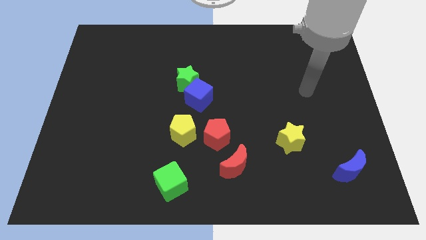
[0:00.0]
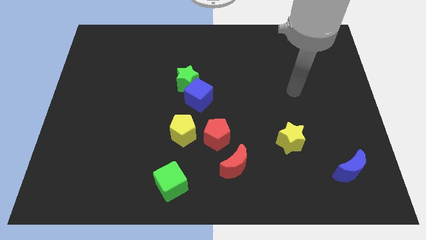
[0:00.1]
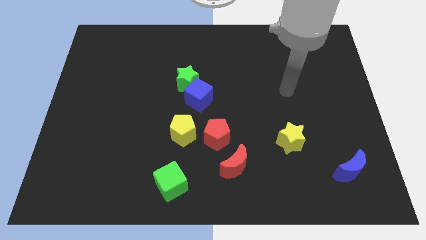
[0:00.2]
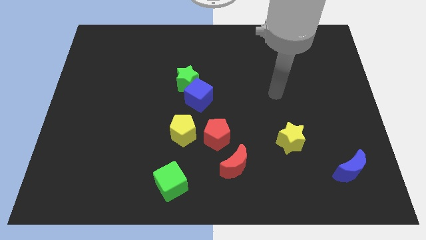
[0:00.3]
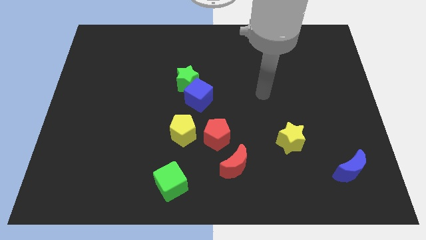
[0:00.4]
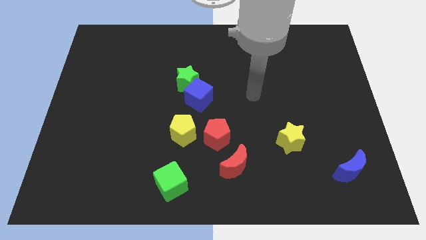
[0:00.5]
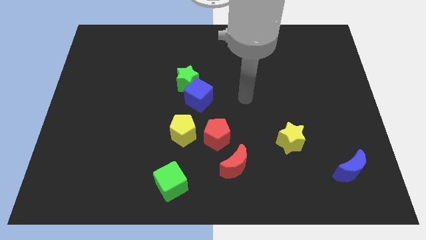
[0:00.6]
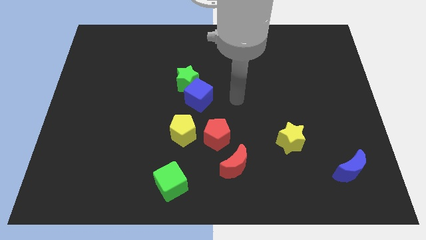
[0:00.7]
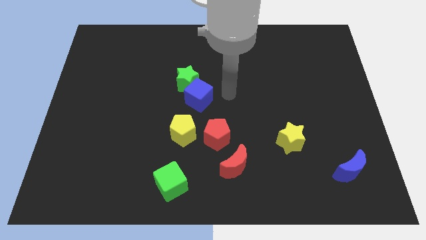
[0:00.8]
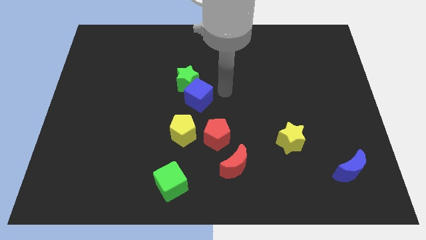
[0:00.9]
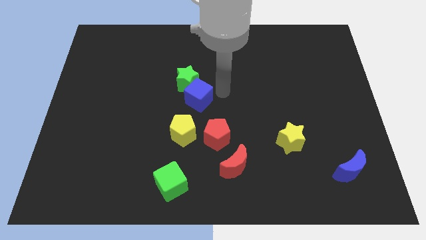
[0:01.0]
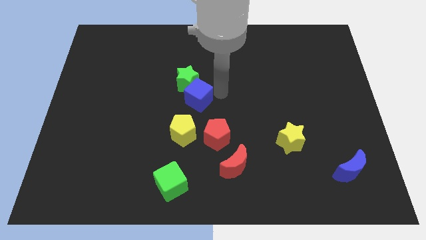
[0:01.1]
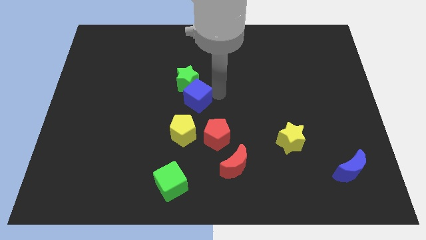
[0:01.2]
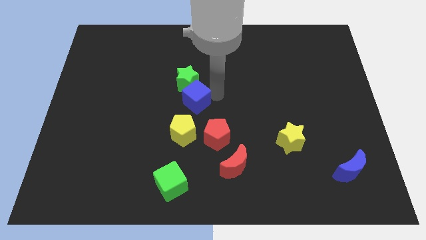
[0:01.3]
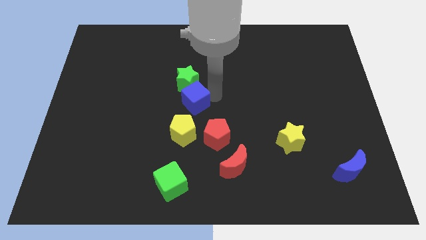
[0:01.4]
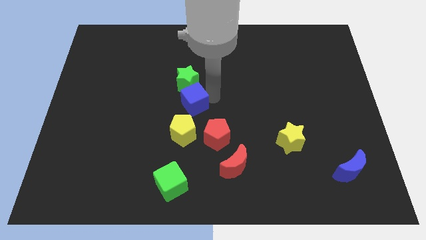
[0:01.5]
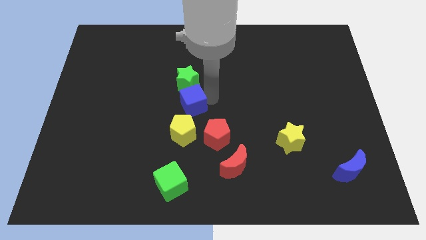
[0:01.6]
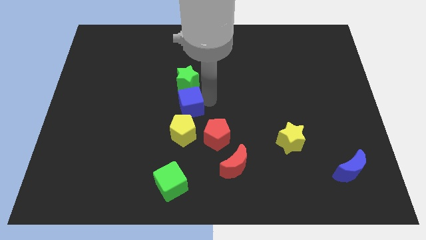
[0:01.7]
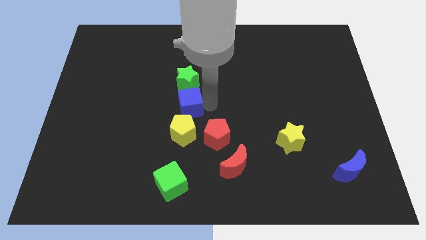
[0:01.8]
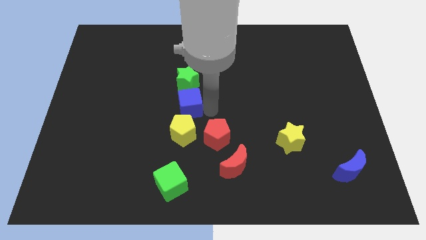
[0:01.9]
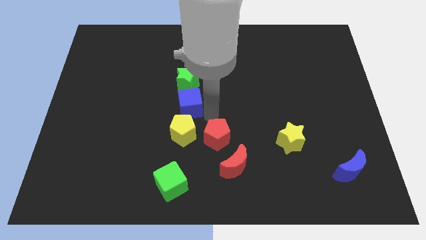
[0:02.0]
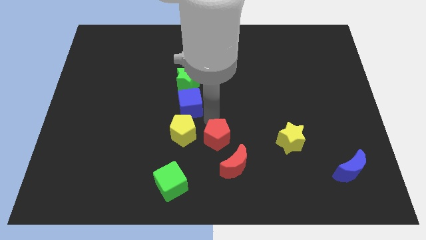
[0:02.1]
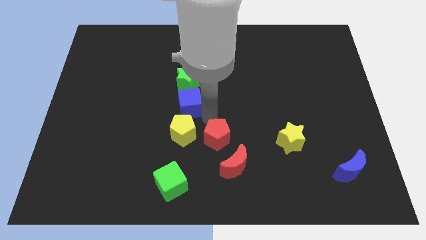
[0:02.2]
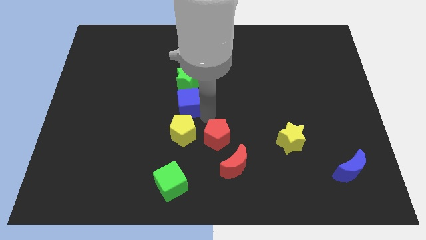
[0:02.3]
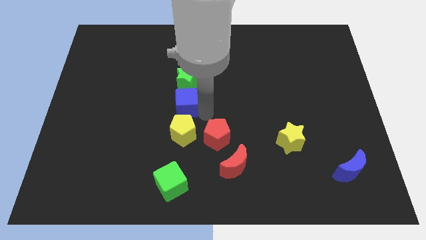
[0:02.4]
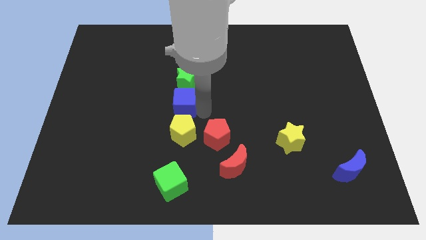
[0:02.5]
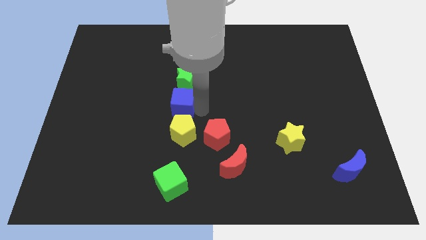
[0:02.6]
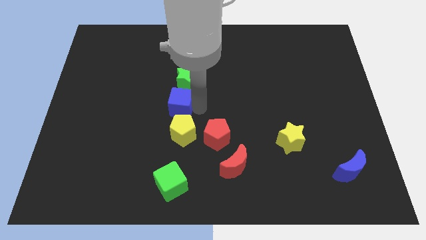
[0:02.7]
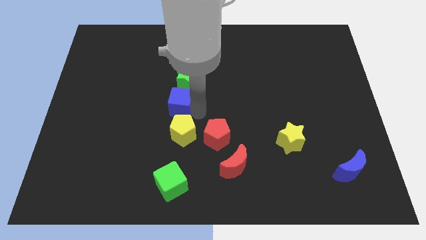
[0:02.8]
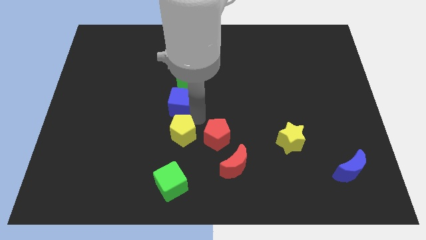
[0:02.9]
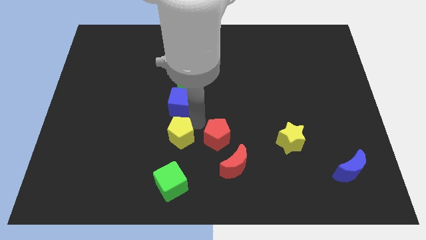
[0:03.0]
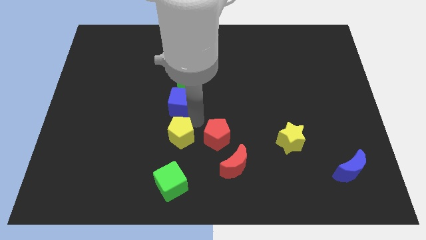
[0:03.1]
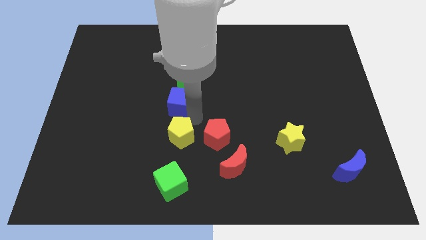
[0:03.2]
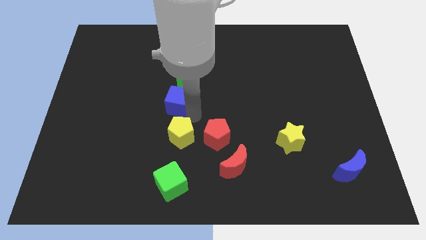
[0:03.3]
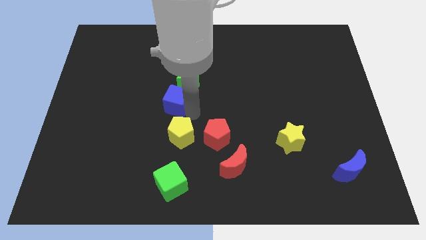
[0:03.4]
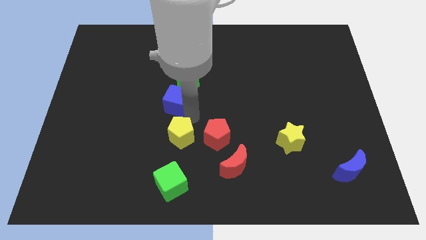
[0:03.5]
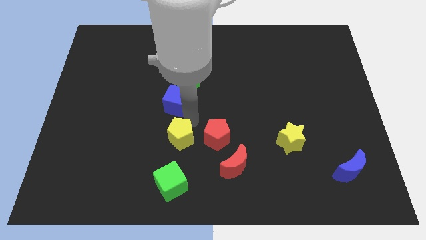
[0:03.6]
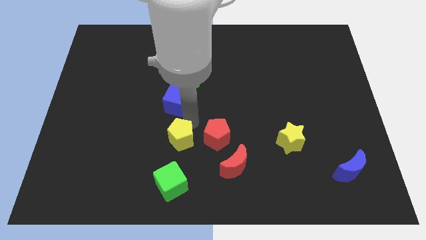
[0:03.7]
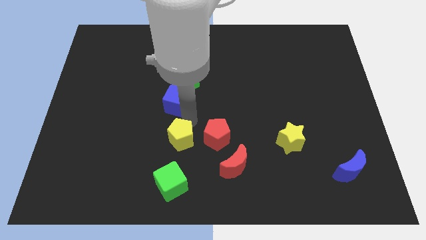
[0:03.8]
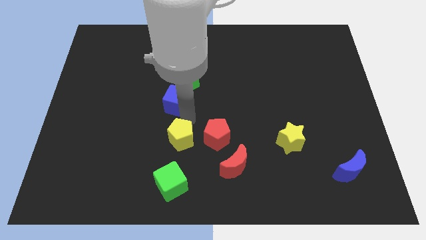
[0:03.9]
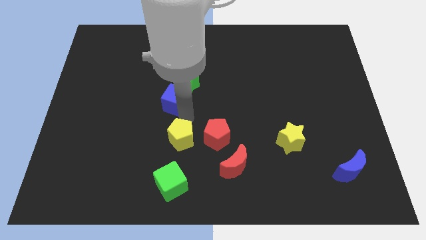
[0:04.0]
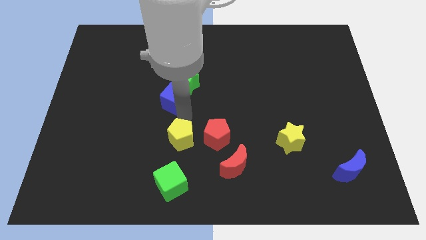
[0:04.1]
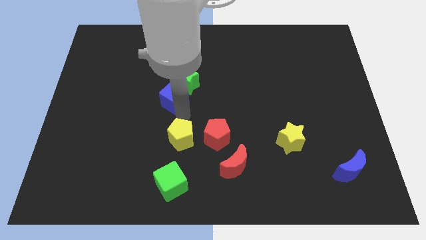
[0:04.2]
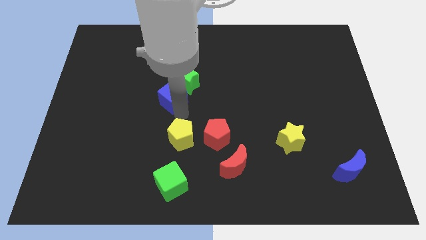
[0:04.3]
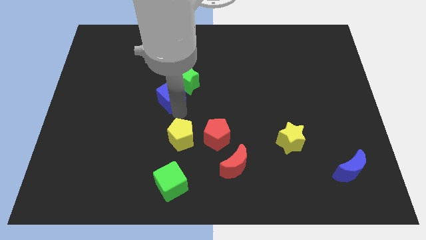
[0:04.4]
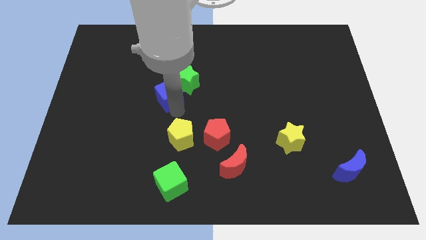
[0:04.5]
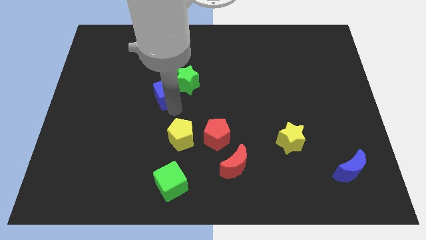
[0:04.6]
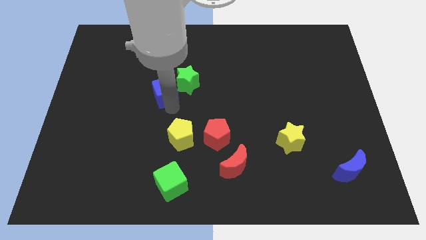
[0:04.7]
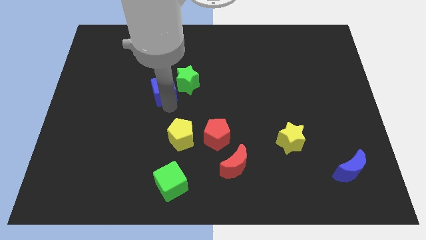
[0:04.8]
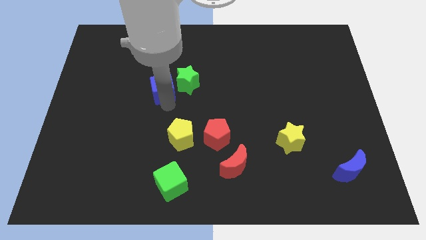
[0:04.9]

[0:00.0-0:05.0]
move the blue cube slightly upwards and to the left diagonally

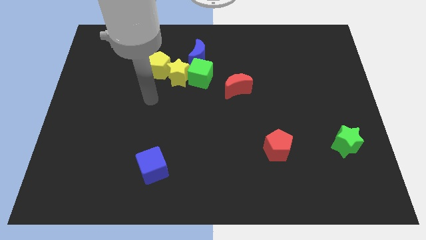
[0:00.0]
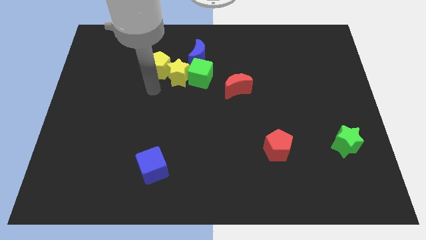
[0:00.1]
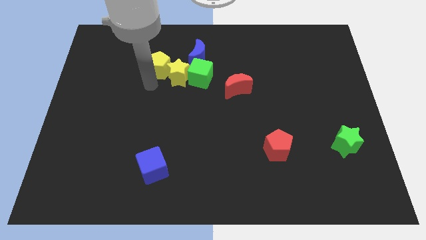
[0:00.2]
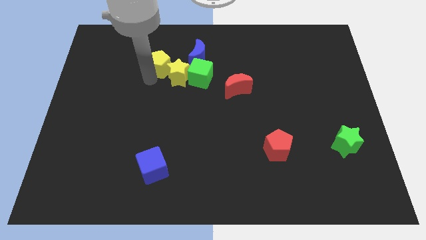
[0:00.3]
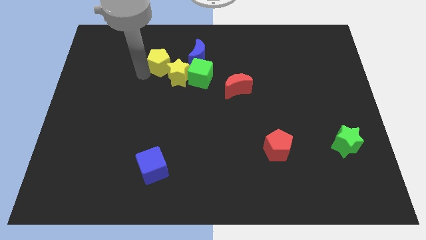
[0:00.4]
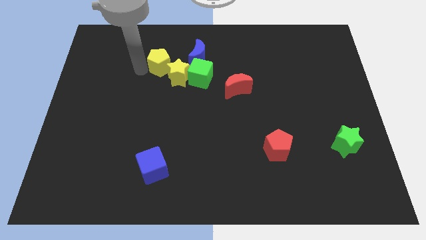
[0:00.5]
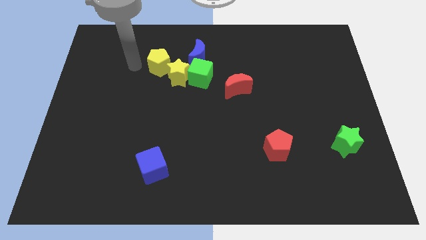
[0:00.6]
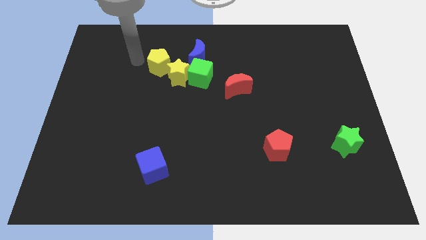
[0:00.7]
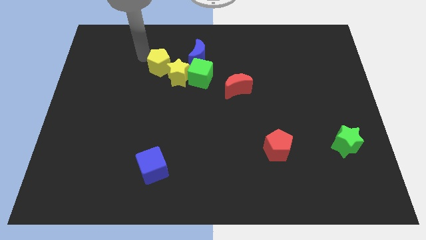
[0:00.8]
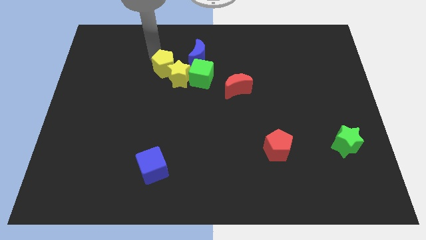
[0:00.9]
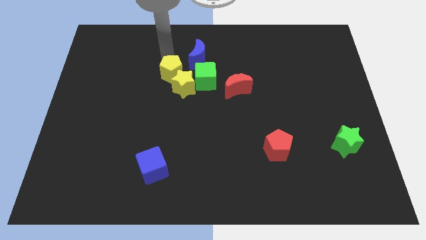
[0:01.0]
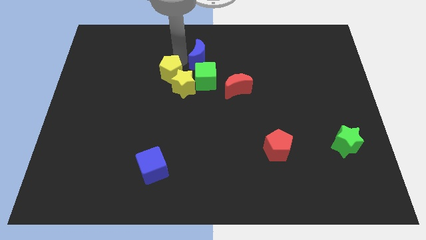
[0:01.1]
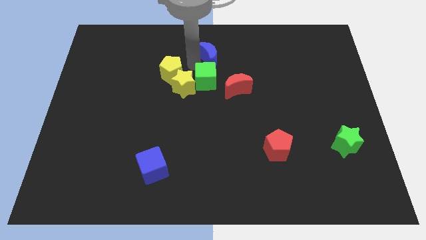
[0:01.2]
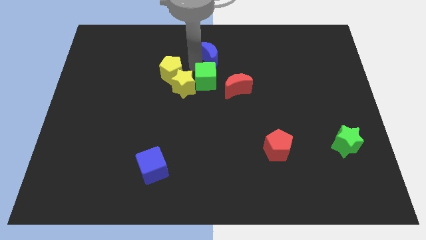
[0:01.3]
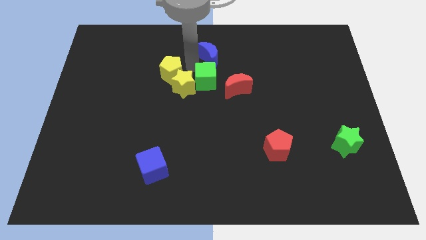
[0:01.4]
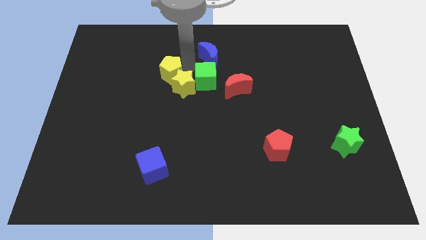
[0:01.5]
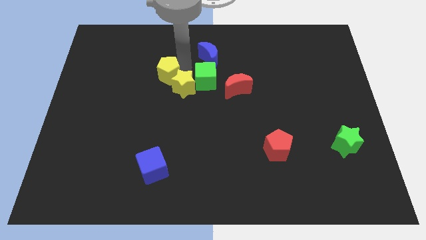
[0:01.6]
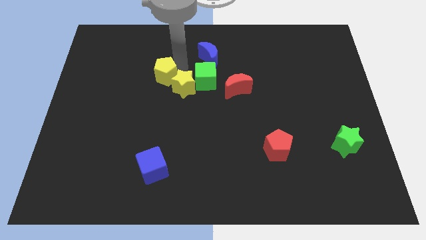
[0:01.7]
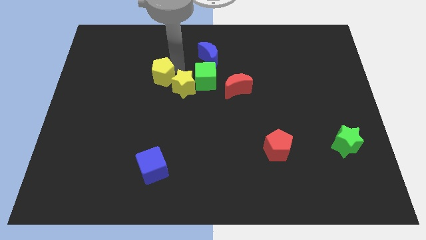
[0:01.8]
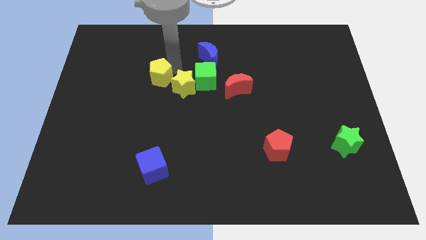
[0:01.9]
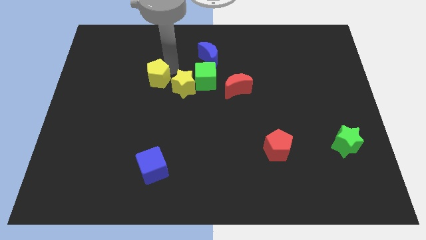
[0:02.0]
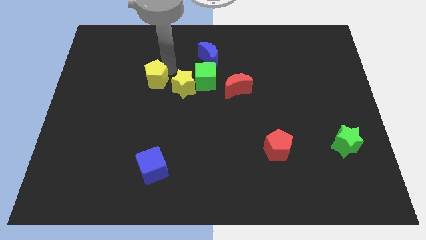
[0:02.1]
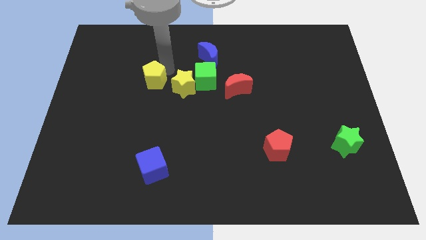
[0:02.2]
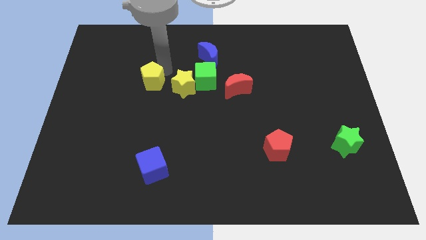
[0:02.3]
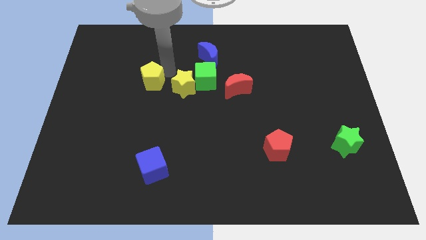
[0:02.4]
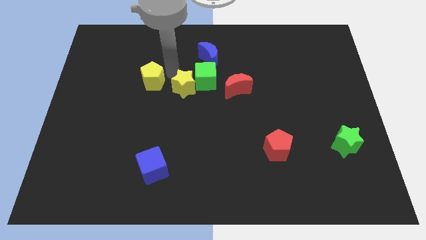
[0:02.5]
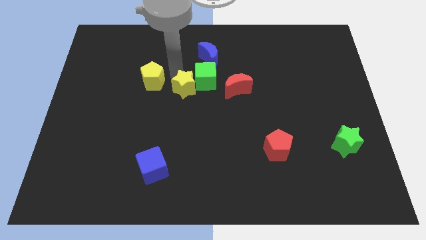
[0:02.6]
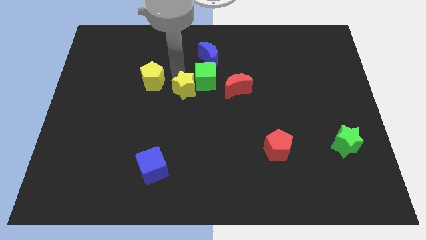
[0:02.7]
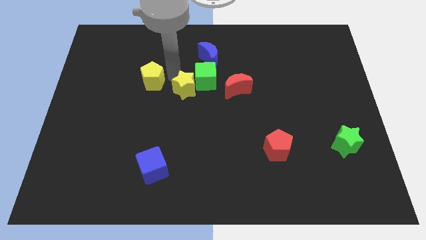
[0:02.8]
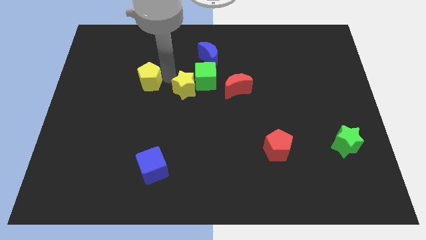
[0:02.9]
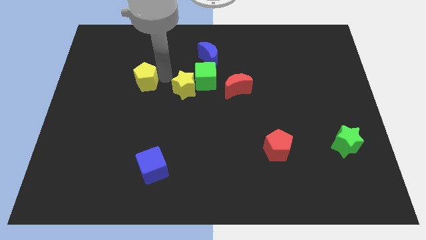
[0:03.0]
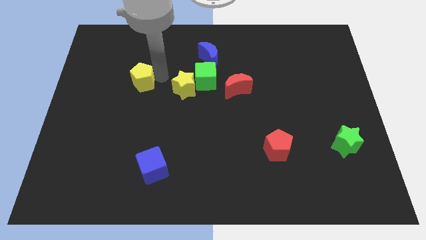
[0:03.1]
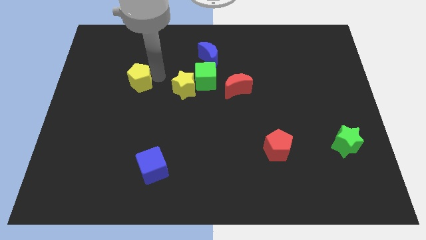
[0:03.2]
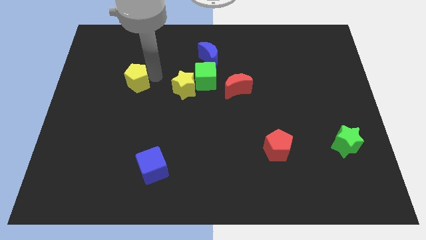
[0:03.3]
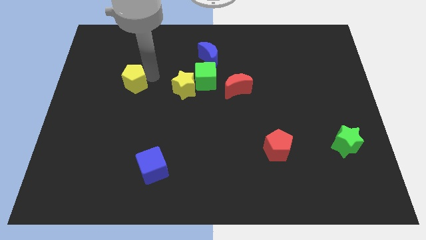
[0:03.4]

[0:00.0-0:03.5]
slightly push the yellow pentagon down and then left
